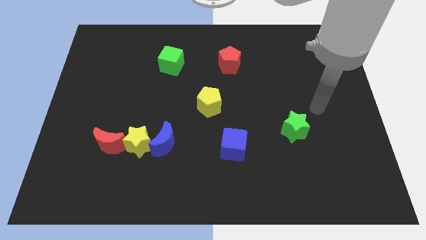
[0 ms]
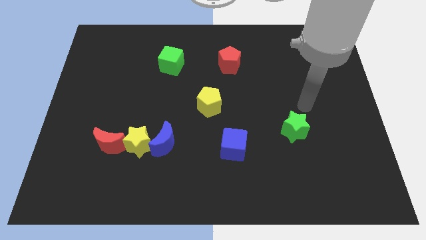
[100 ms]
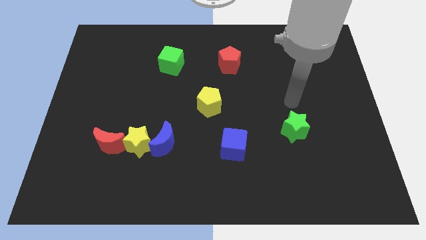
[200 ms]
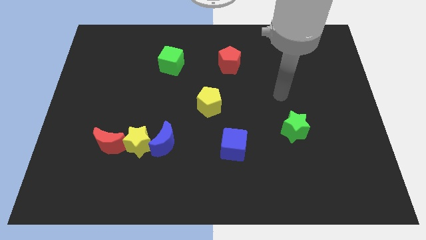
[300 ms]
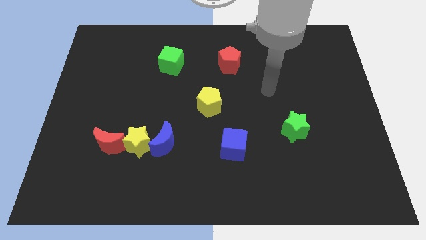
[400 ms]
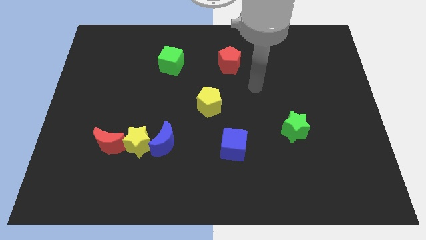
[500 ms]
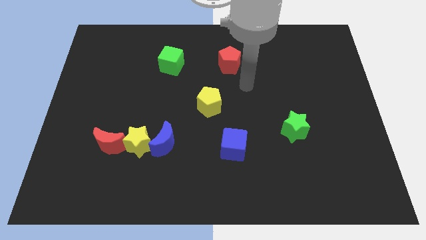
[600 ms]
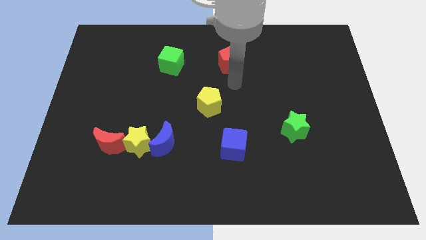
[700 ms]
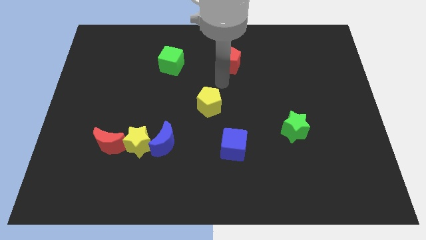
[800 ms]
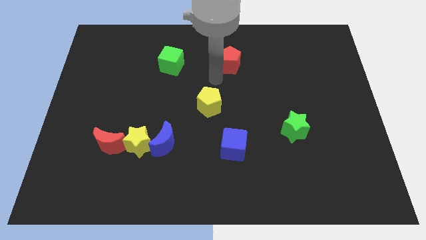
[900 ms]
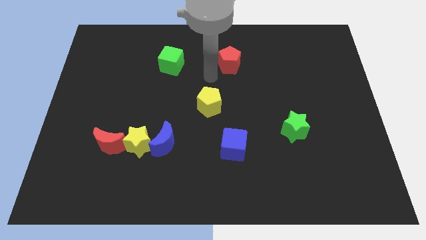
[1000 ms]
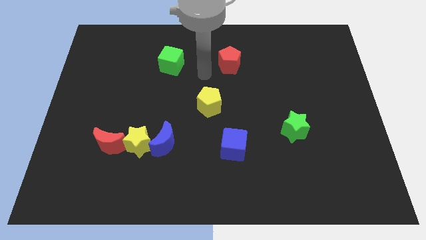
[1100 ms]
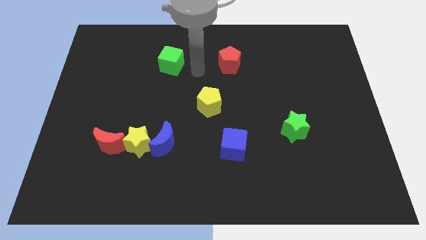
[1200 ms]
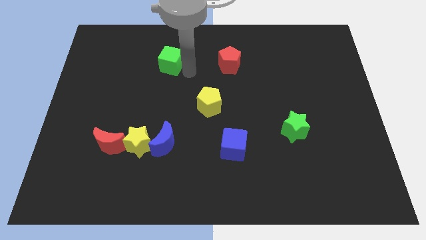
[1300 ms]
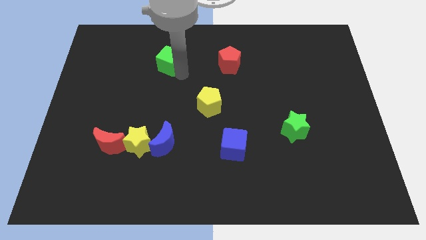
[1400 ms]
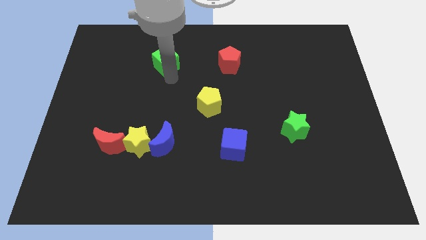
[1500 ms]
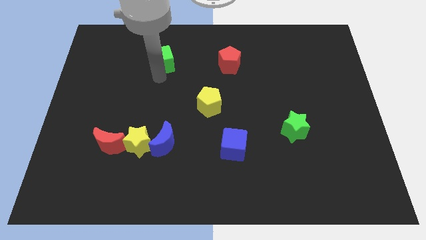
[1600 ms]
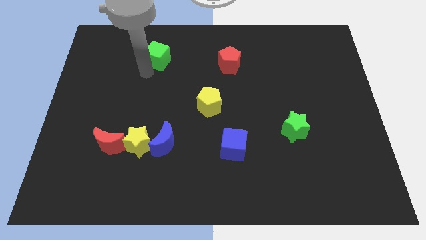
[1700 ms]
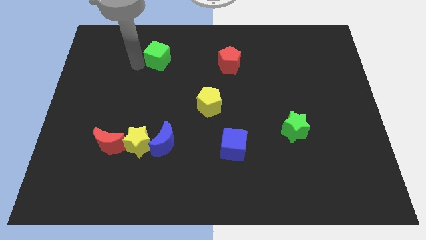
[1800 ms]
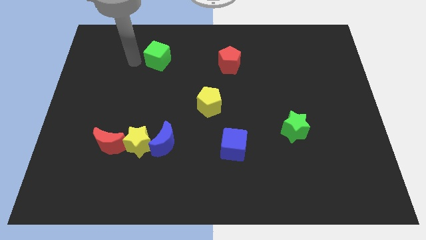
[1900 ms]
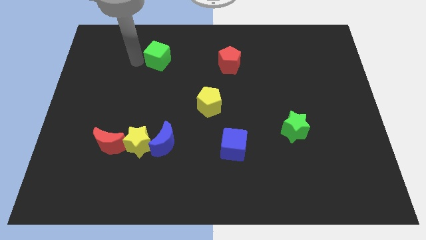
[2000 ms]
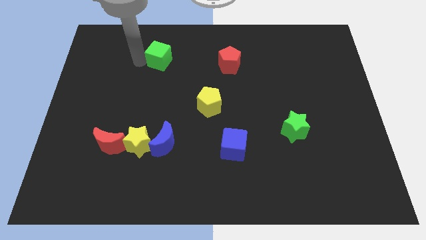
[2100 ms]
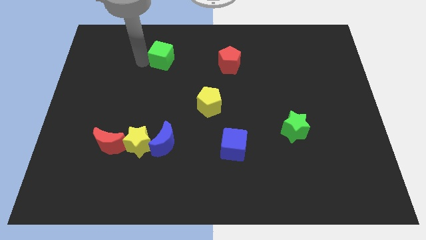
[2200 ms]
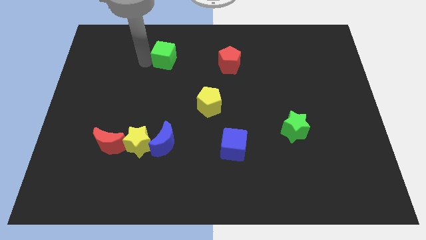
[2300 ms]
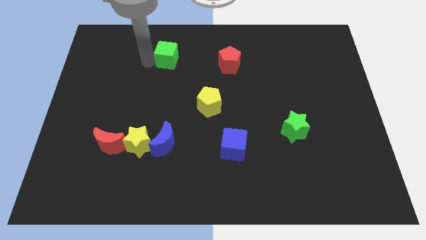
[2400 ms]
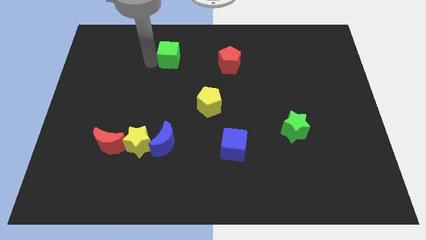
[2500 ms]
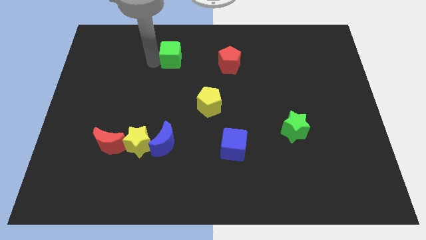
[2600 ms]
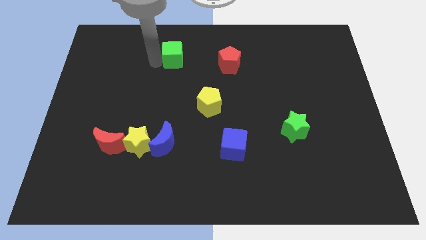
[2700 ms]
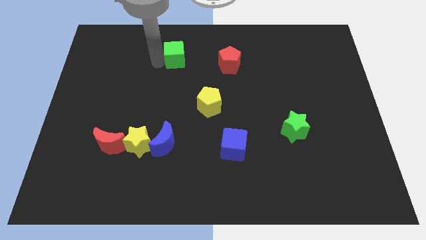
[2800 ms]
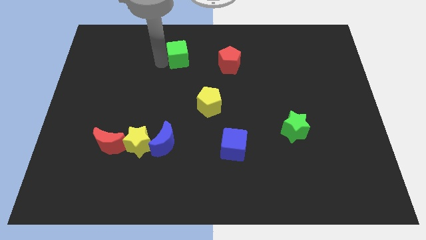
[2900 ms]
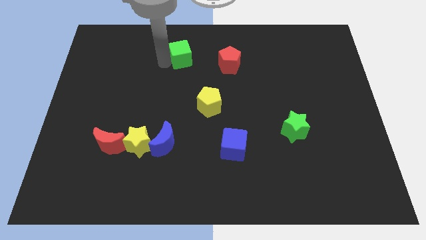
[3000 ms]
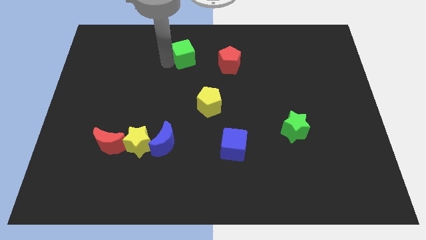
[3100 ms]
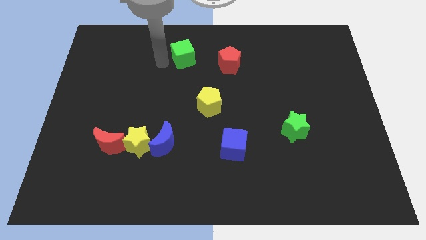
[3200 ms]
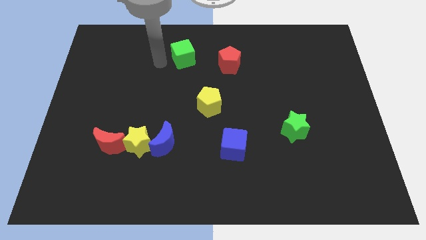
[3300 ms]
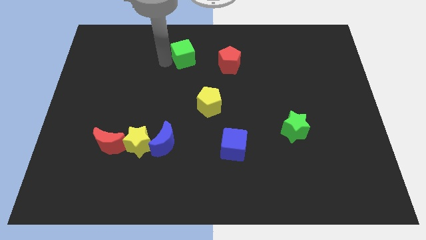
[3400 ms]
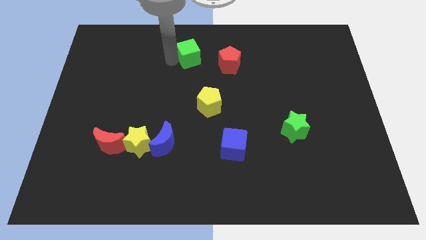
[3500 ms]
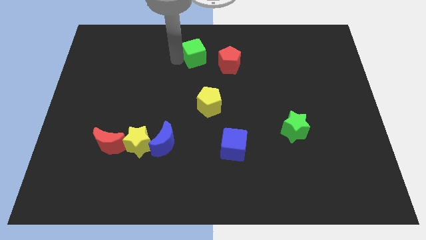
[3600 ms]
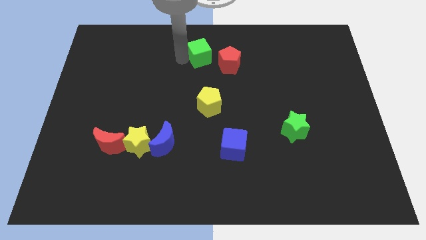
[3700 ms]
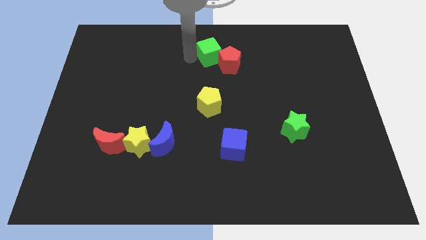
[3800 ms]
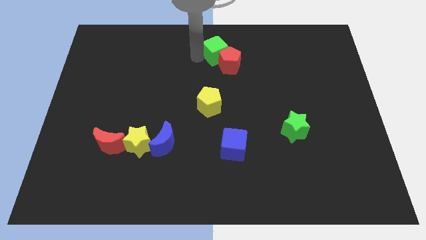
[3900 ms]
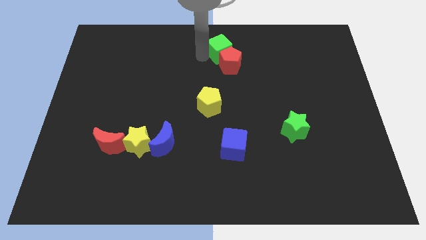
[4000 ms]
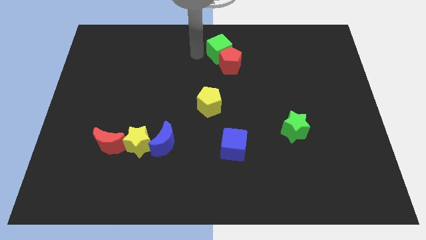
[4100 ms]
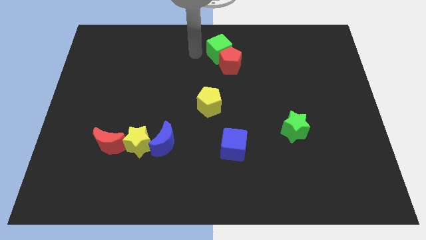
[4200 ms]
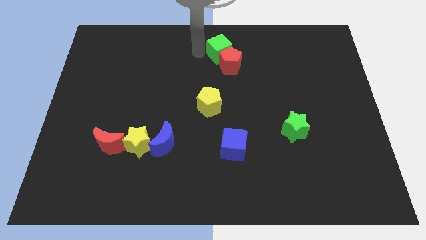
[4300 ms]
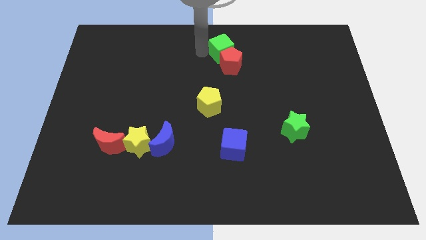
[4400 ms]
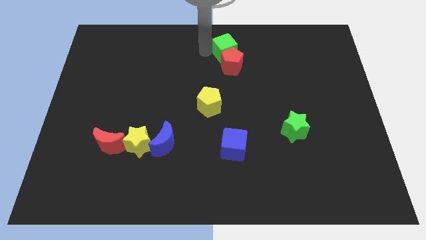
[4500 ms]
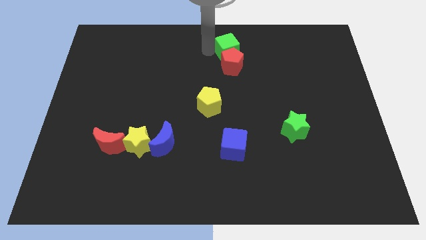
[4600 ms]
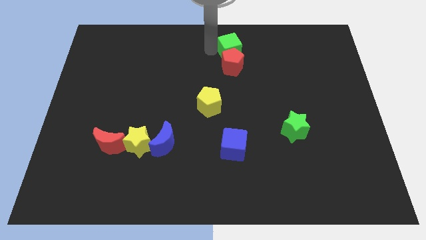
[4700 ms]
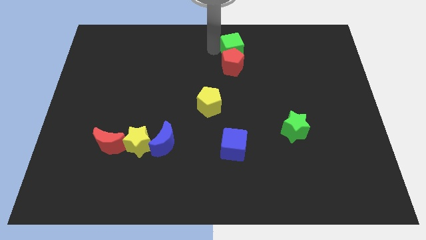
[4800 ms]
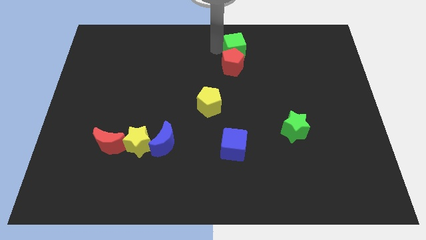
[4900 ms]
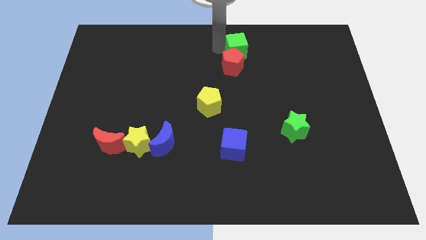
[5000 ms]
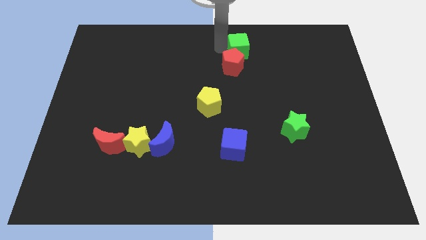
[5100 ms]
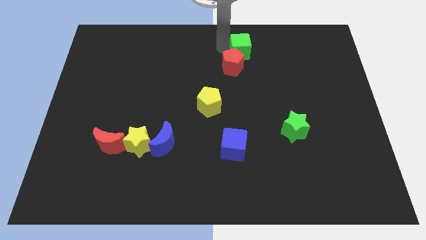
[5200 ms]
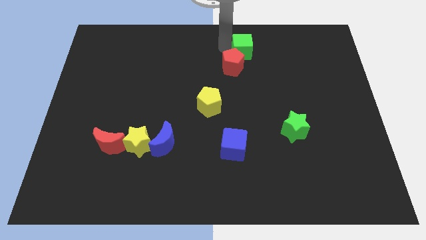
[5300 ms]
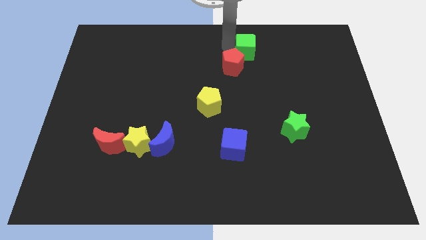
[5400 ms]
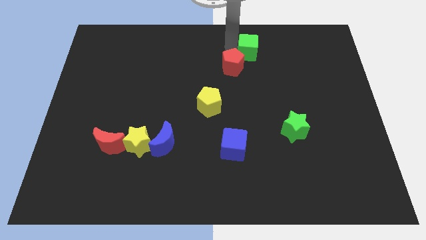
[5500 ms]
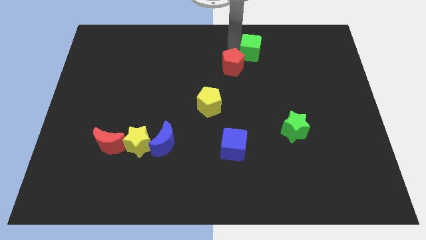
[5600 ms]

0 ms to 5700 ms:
move the green cube right

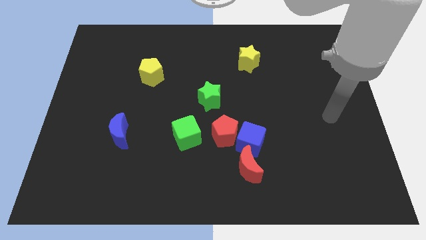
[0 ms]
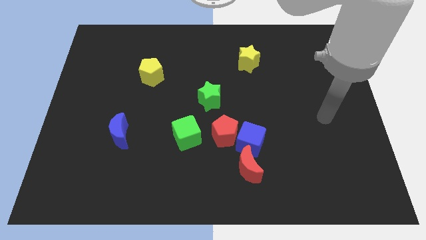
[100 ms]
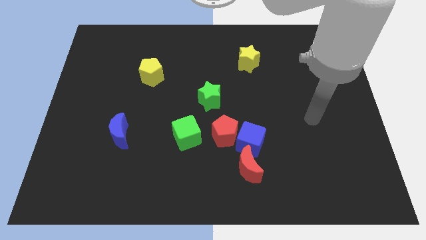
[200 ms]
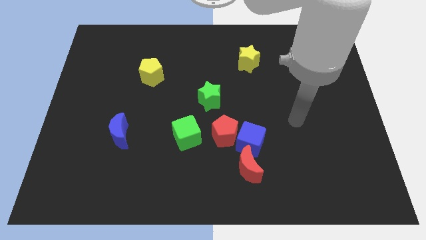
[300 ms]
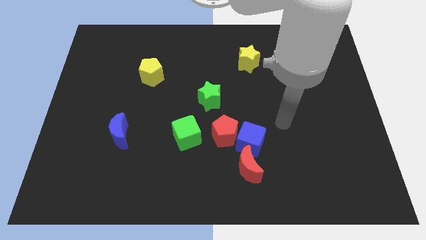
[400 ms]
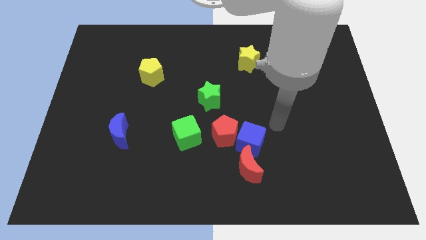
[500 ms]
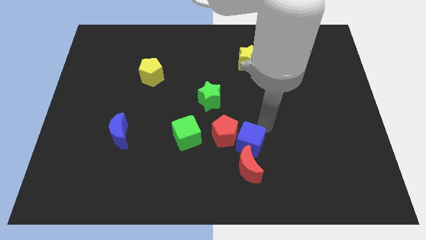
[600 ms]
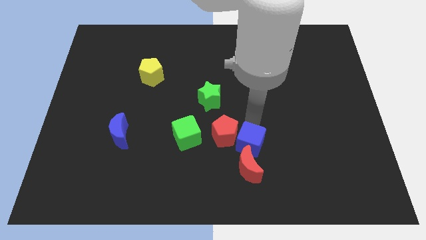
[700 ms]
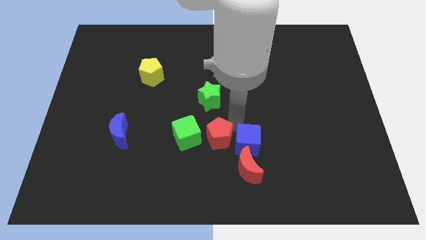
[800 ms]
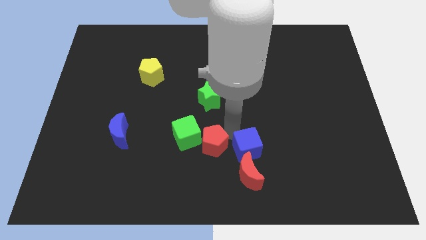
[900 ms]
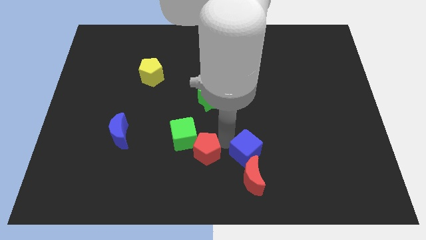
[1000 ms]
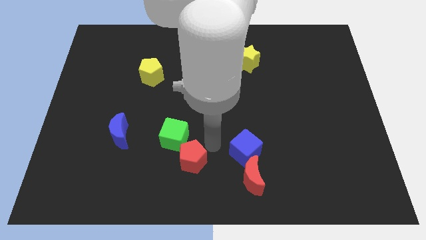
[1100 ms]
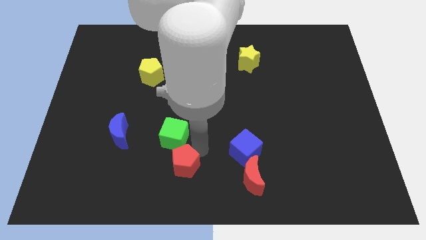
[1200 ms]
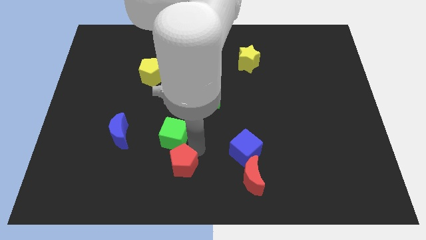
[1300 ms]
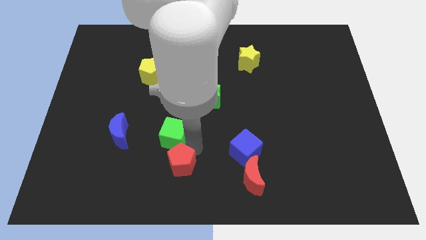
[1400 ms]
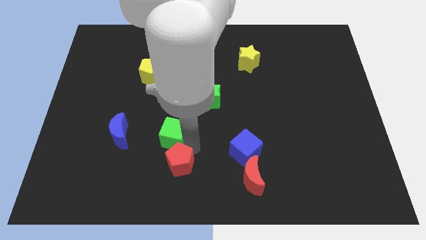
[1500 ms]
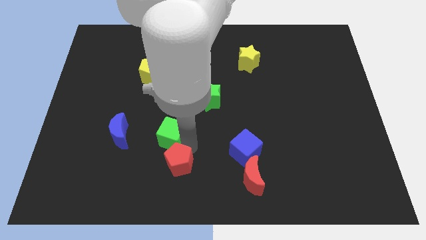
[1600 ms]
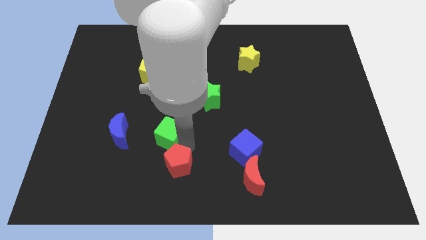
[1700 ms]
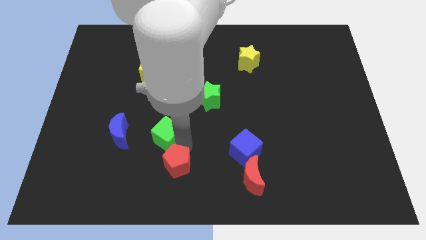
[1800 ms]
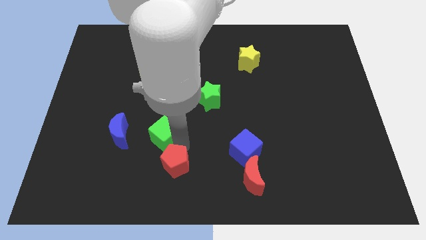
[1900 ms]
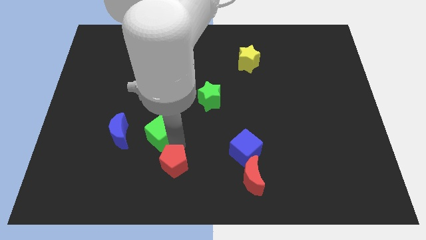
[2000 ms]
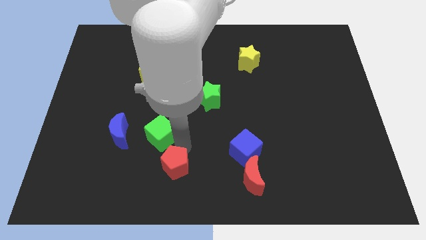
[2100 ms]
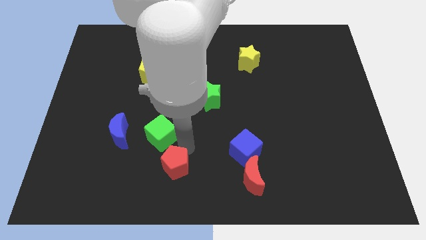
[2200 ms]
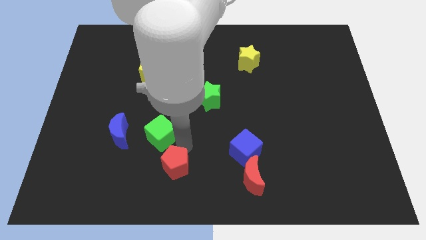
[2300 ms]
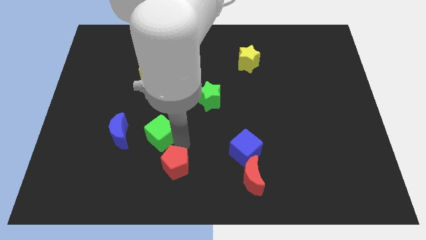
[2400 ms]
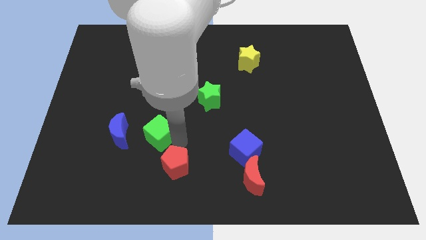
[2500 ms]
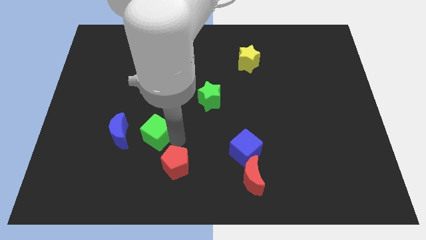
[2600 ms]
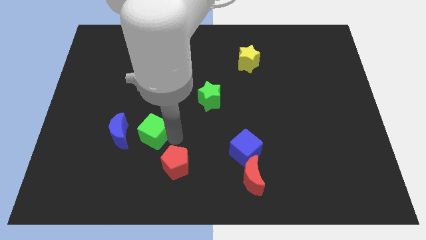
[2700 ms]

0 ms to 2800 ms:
move the green cube to the left a little bit
